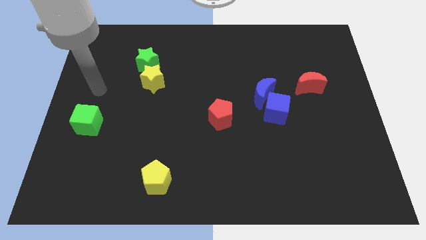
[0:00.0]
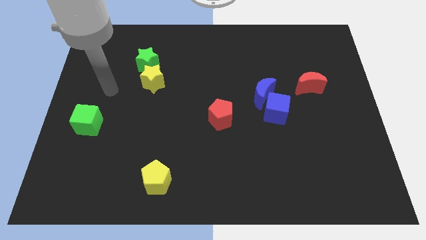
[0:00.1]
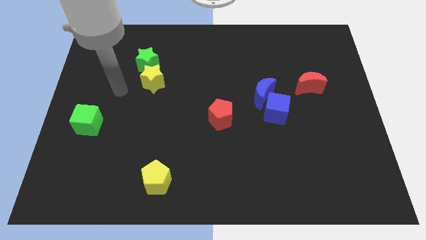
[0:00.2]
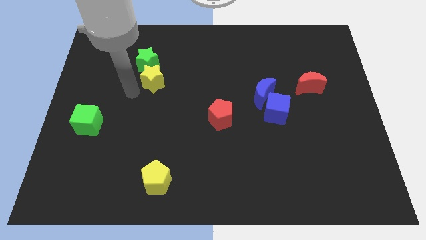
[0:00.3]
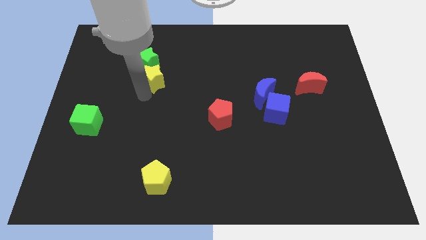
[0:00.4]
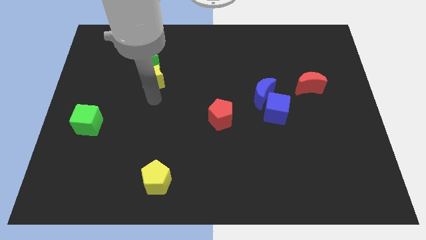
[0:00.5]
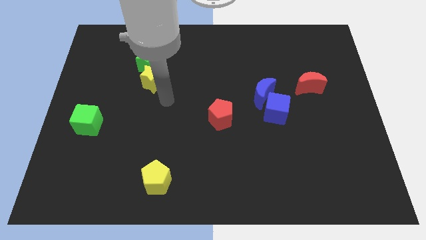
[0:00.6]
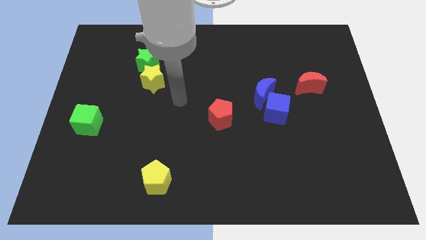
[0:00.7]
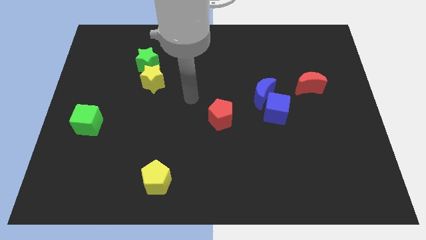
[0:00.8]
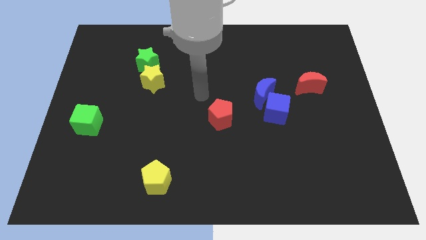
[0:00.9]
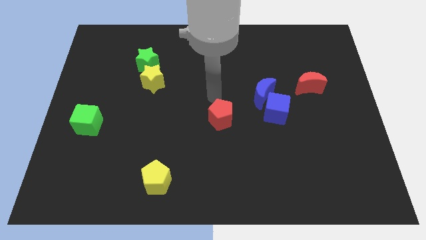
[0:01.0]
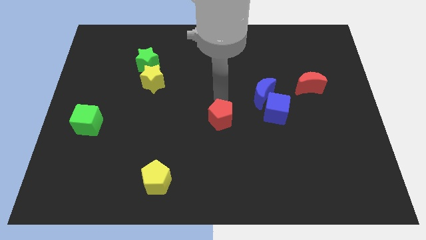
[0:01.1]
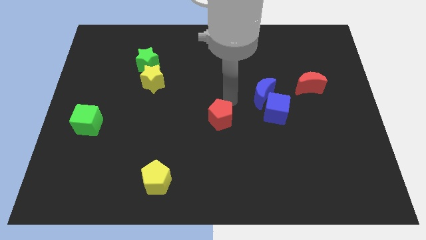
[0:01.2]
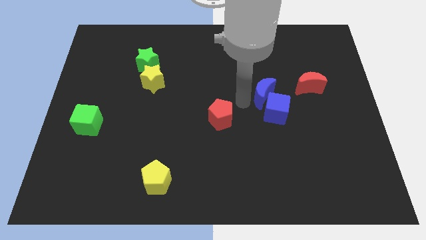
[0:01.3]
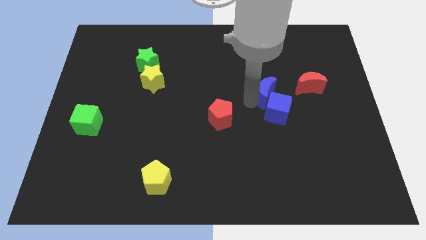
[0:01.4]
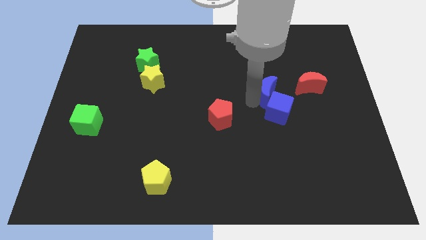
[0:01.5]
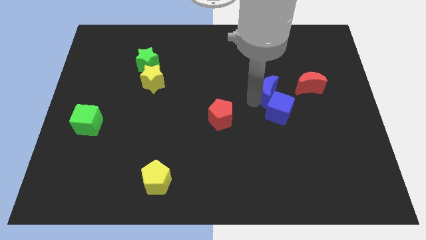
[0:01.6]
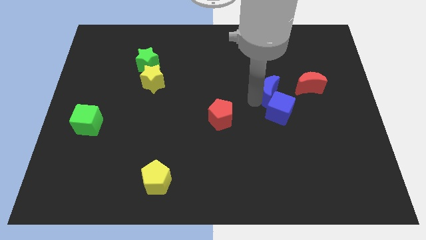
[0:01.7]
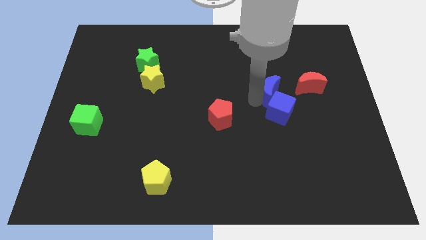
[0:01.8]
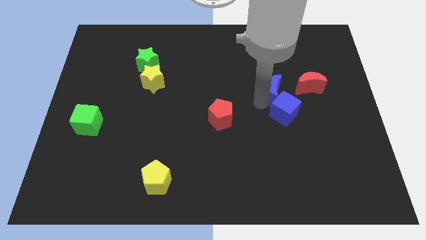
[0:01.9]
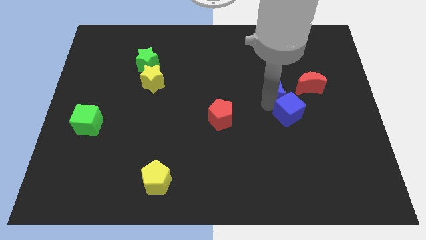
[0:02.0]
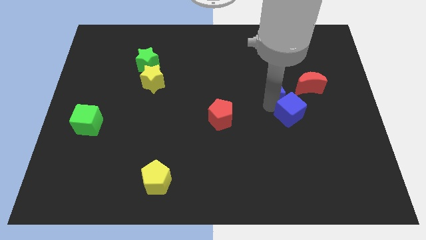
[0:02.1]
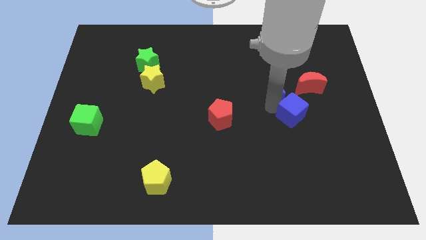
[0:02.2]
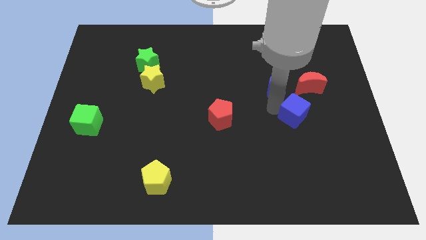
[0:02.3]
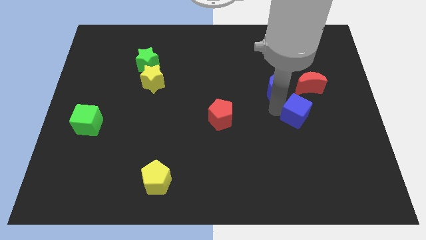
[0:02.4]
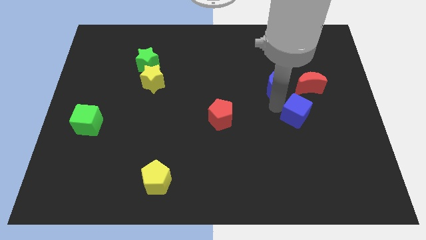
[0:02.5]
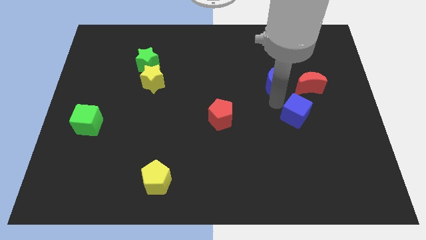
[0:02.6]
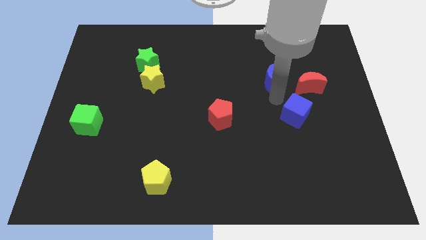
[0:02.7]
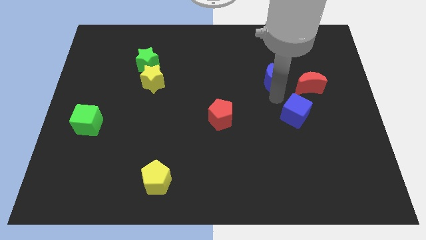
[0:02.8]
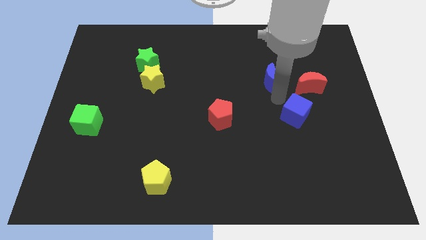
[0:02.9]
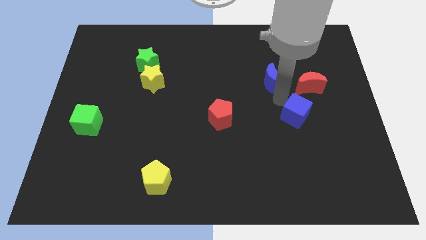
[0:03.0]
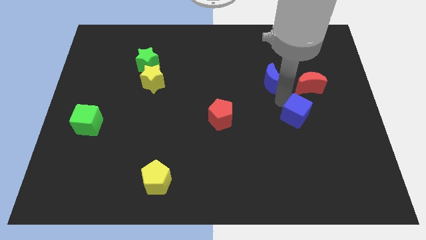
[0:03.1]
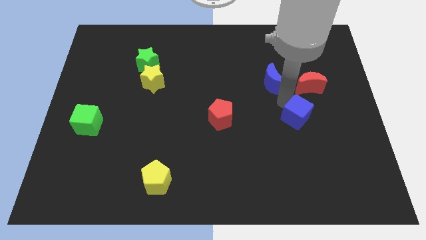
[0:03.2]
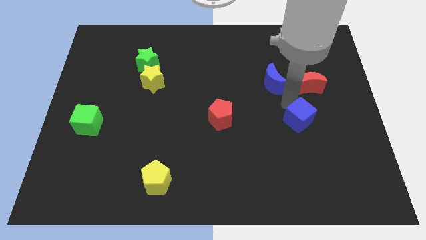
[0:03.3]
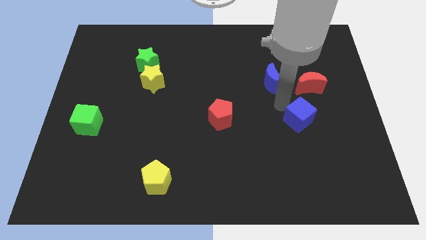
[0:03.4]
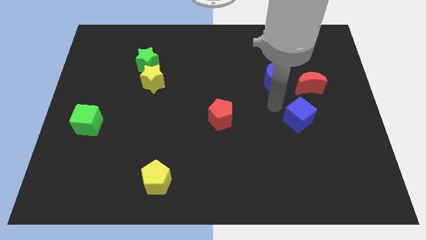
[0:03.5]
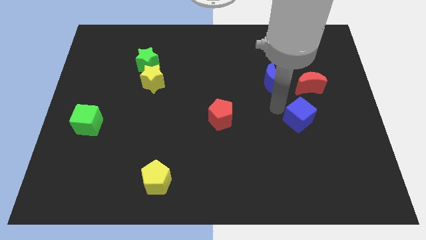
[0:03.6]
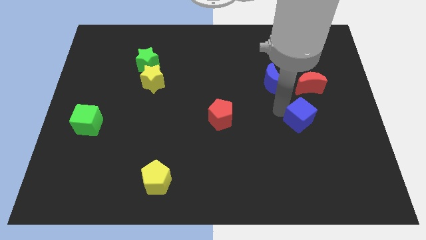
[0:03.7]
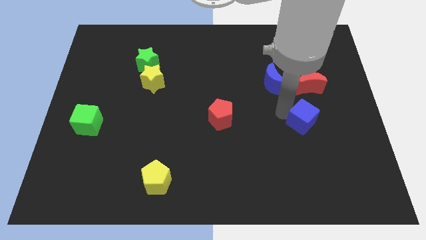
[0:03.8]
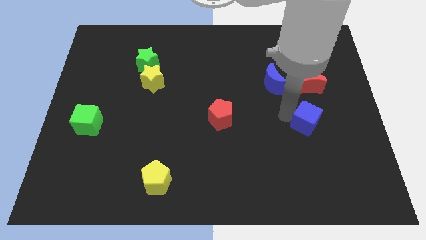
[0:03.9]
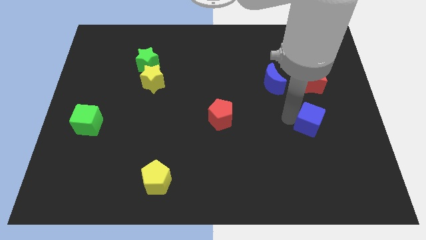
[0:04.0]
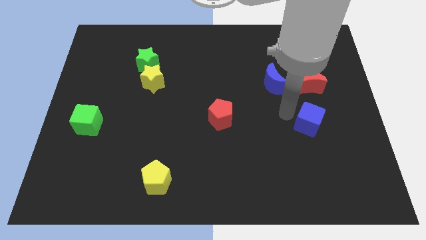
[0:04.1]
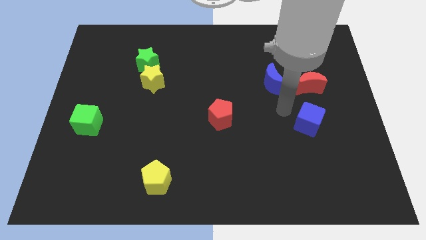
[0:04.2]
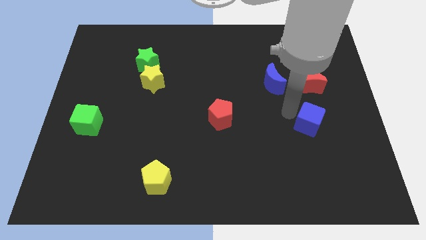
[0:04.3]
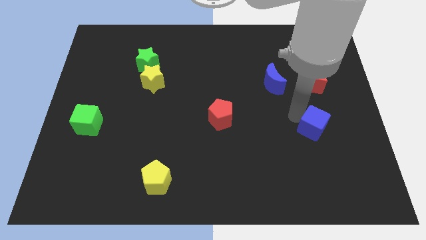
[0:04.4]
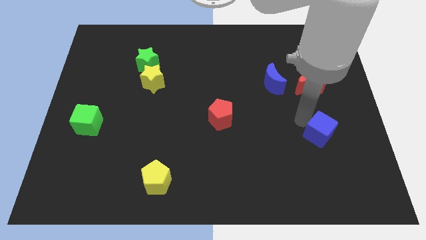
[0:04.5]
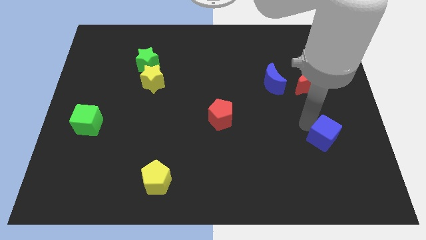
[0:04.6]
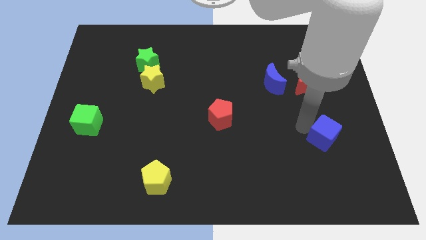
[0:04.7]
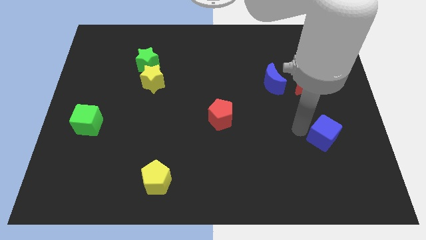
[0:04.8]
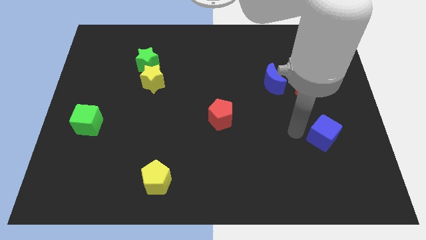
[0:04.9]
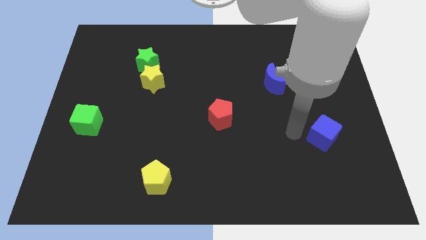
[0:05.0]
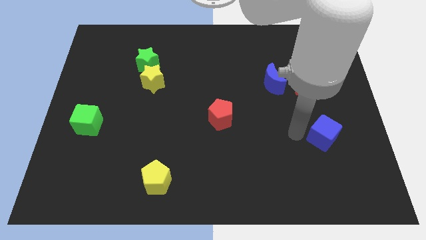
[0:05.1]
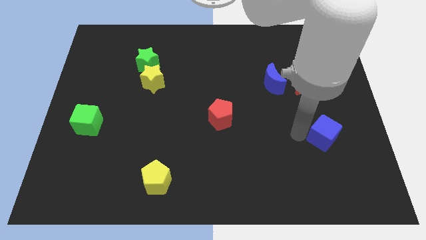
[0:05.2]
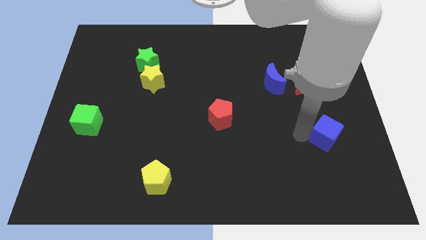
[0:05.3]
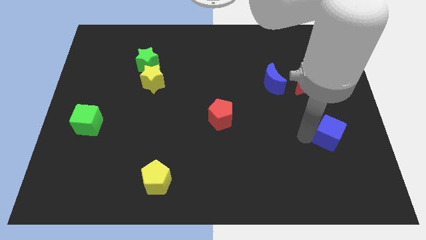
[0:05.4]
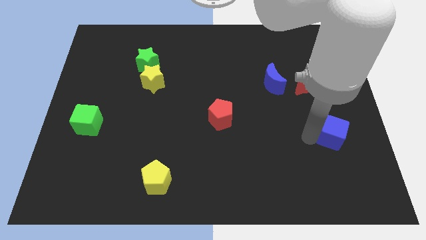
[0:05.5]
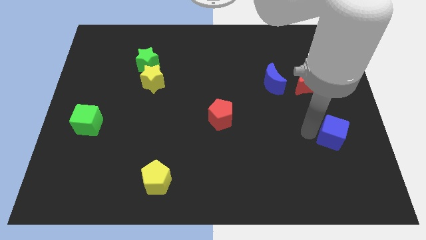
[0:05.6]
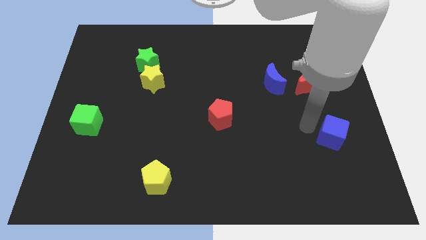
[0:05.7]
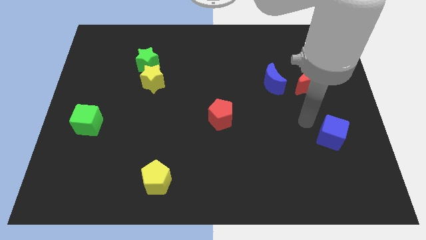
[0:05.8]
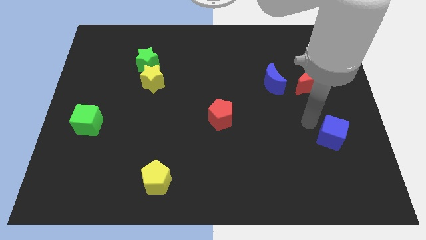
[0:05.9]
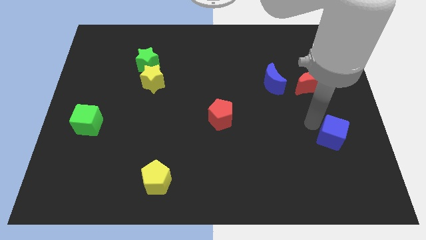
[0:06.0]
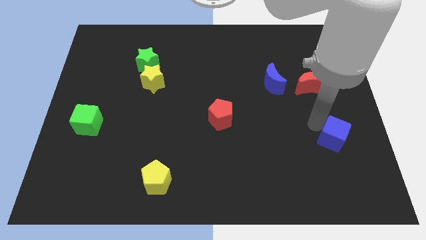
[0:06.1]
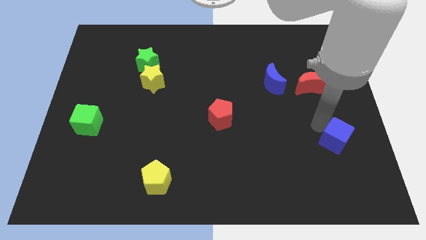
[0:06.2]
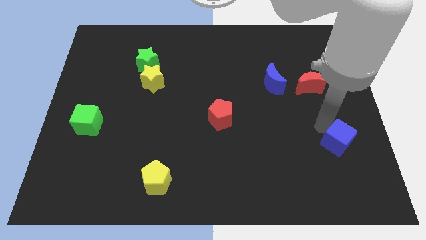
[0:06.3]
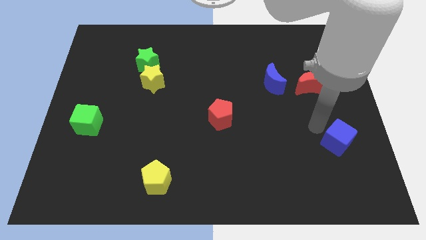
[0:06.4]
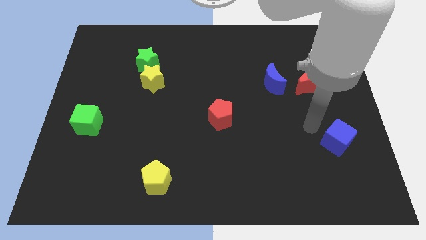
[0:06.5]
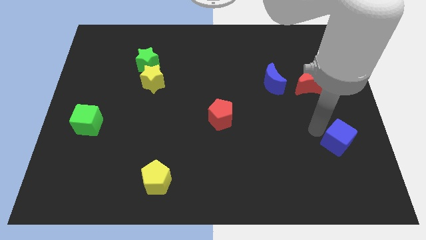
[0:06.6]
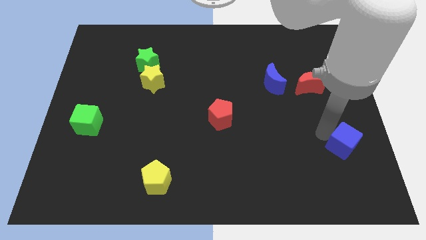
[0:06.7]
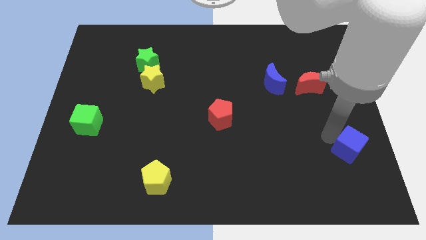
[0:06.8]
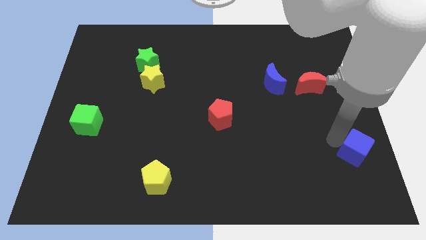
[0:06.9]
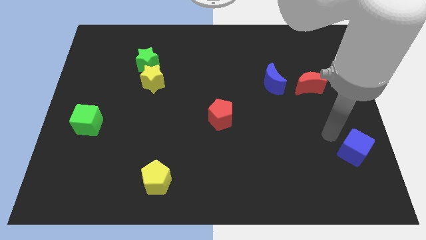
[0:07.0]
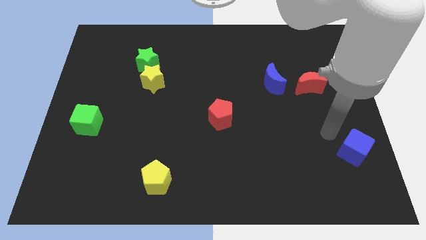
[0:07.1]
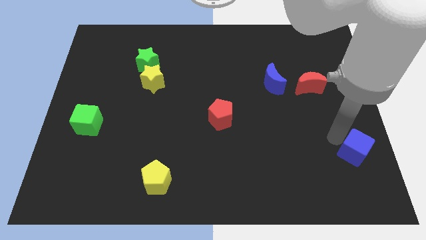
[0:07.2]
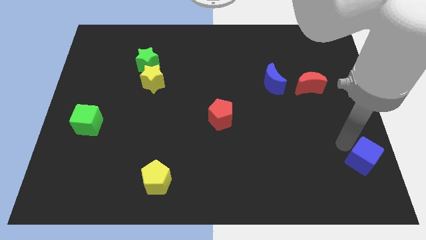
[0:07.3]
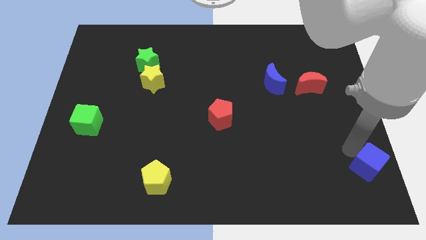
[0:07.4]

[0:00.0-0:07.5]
push the blue cube to the bottom right corner
